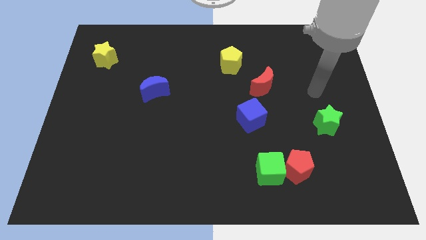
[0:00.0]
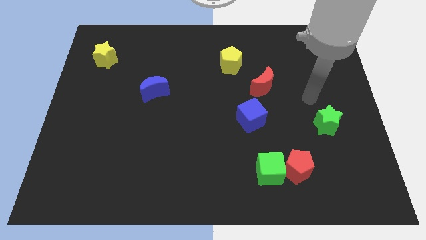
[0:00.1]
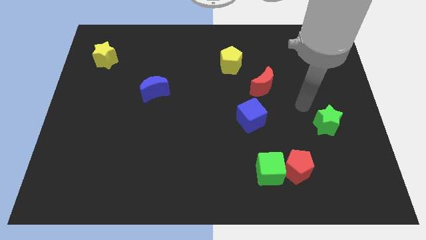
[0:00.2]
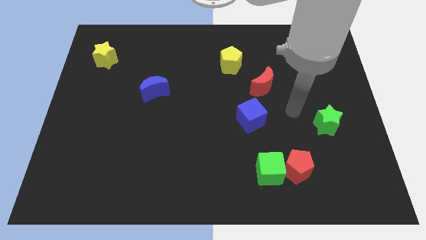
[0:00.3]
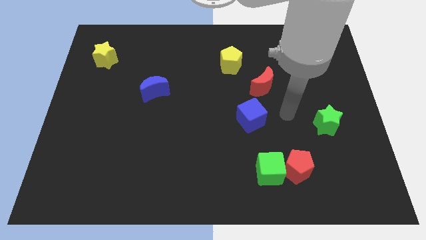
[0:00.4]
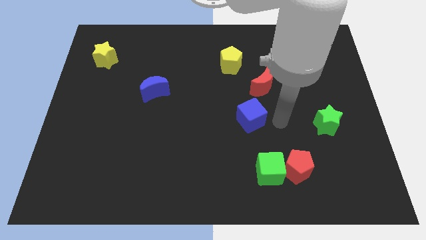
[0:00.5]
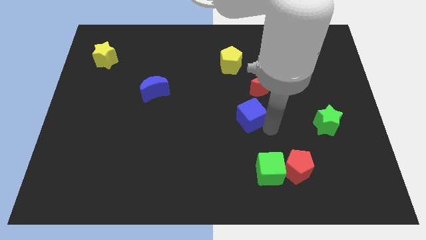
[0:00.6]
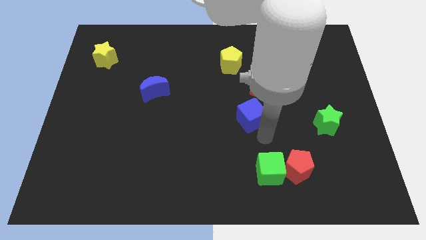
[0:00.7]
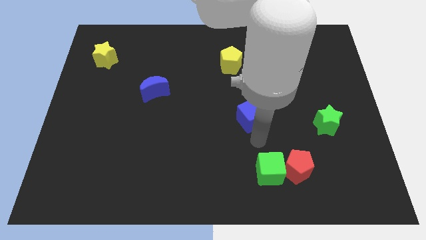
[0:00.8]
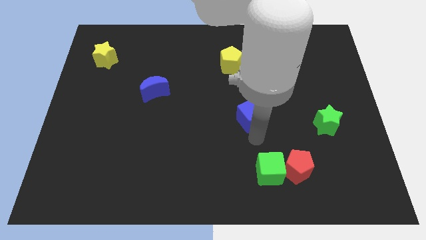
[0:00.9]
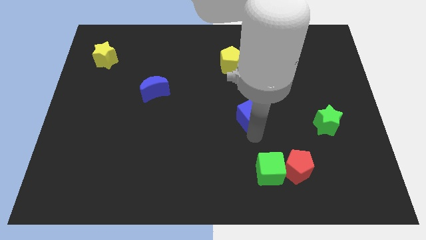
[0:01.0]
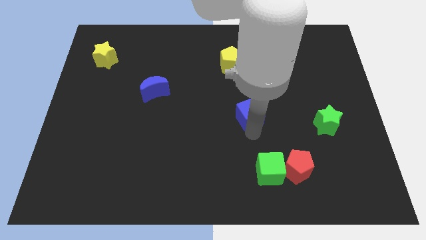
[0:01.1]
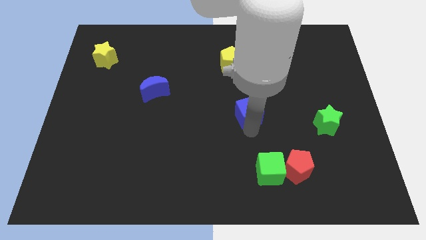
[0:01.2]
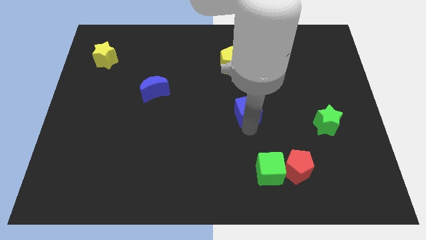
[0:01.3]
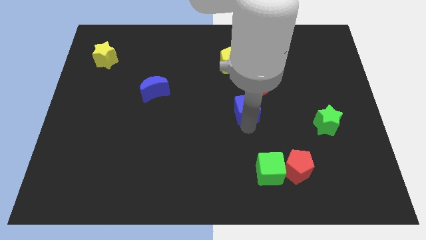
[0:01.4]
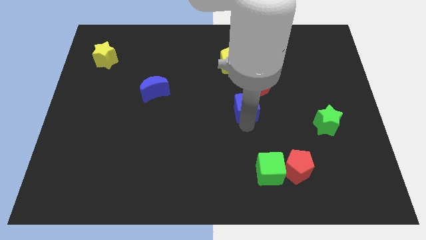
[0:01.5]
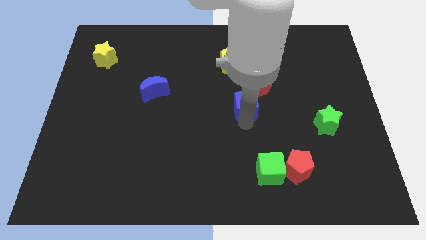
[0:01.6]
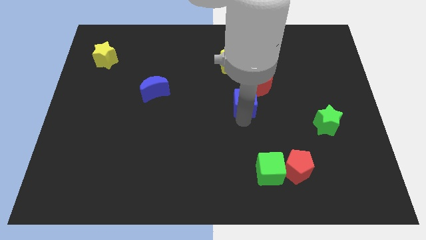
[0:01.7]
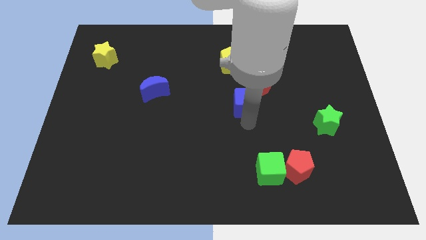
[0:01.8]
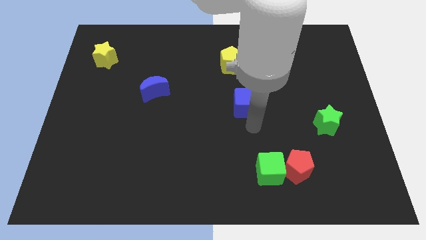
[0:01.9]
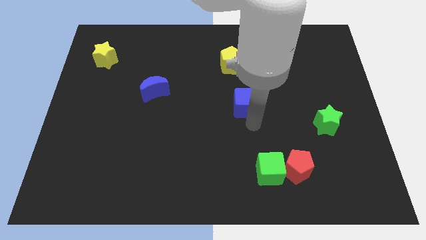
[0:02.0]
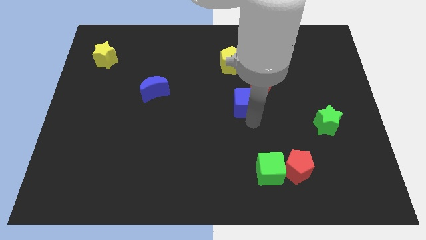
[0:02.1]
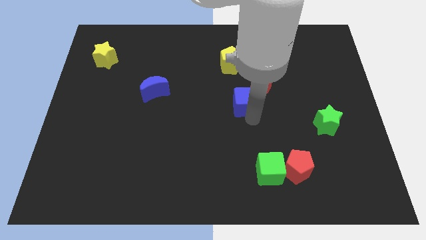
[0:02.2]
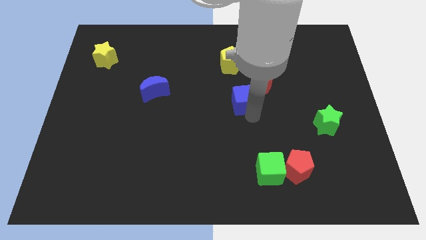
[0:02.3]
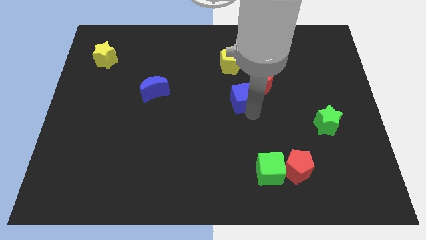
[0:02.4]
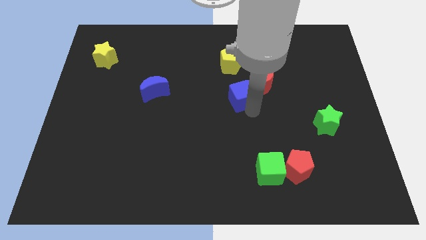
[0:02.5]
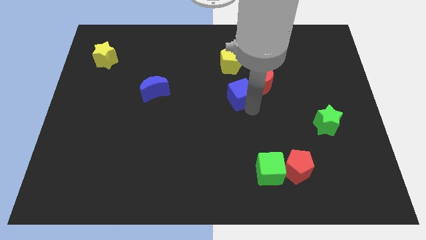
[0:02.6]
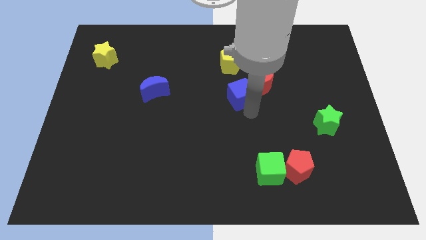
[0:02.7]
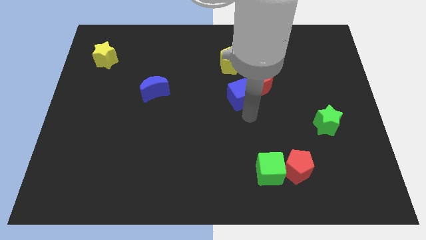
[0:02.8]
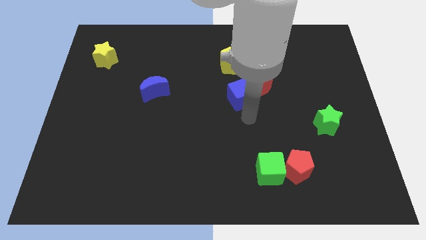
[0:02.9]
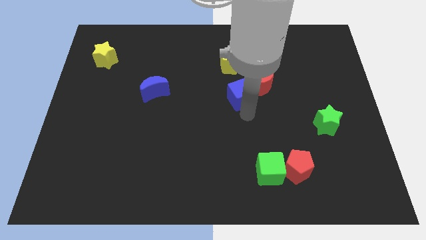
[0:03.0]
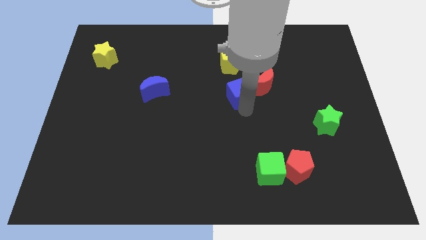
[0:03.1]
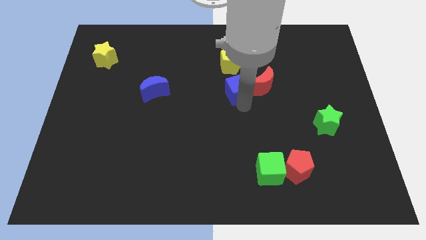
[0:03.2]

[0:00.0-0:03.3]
slide the blue cube slightly upwards

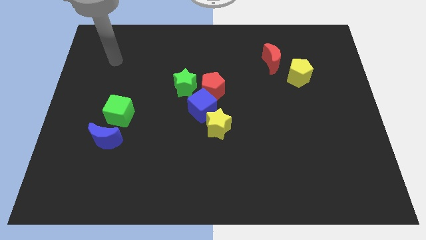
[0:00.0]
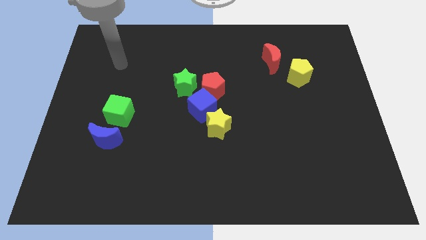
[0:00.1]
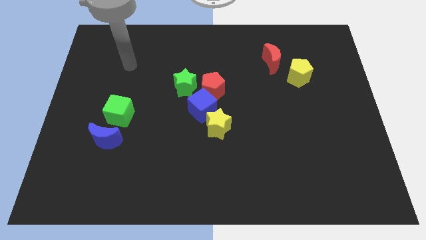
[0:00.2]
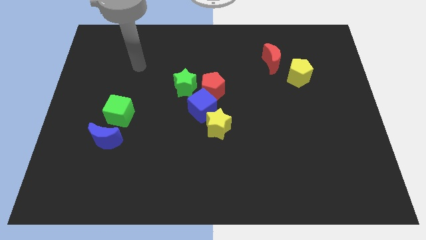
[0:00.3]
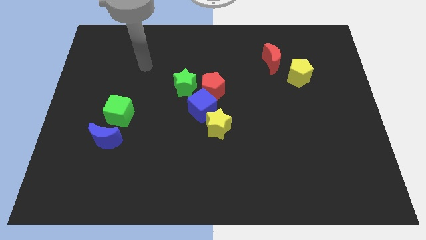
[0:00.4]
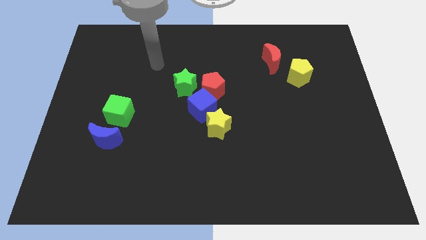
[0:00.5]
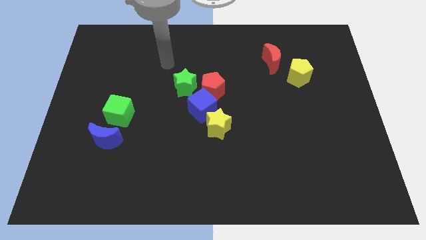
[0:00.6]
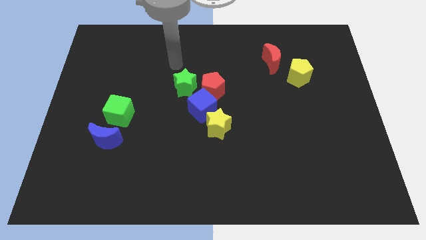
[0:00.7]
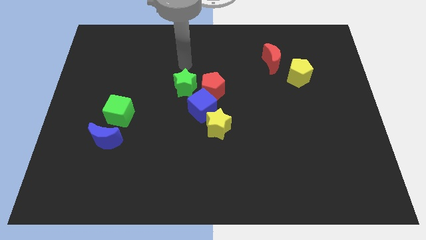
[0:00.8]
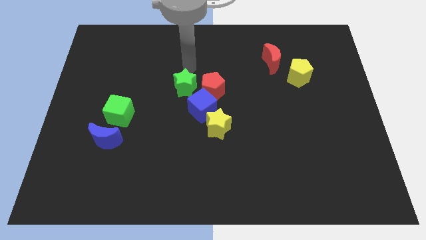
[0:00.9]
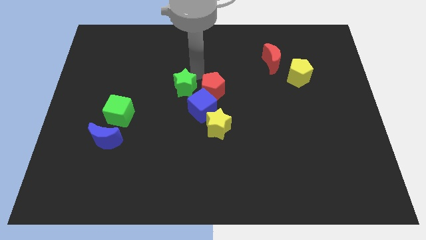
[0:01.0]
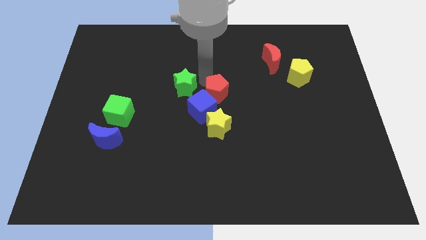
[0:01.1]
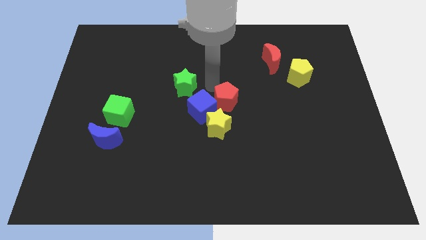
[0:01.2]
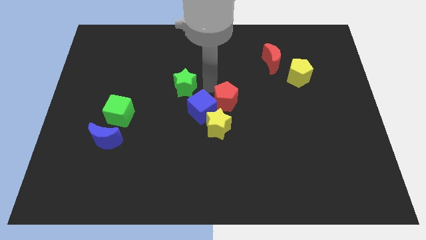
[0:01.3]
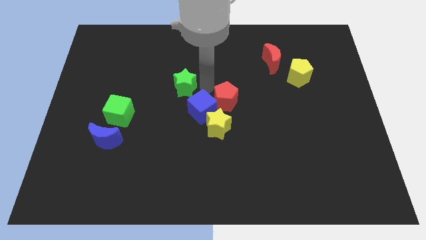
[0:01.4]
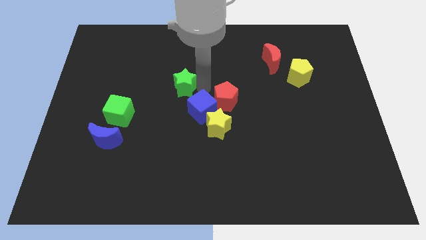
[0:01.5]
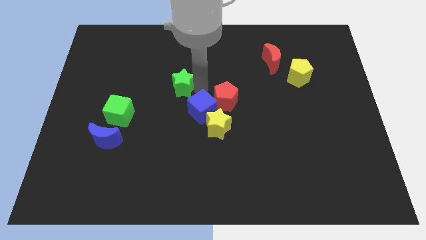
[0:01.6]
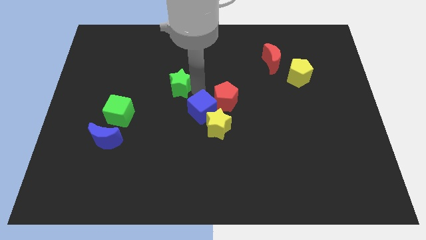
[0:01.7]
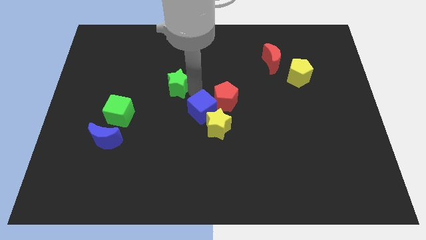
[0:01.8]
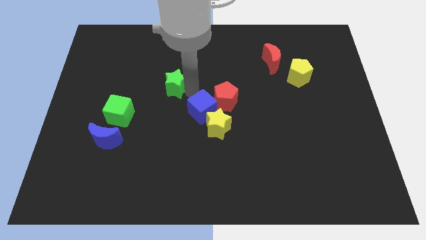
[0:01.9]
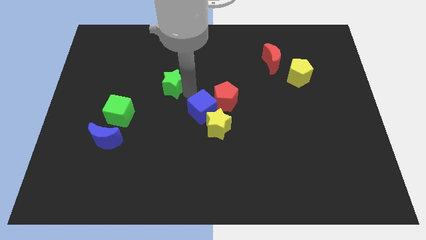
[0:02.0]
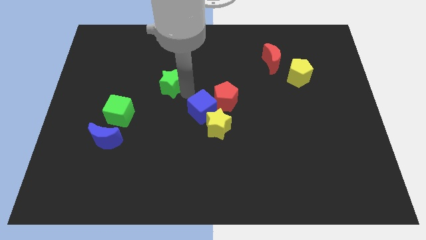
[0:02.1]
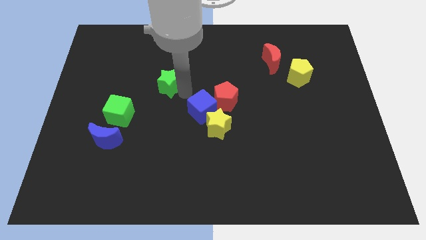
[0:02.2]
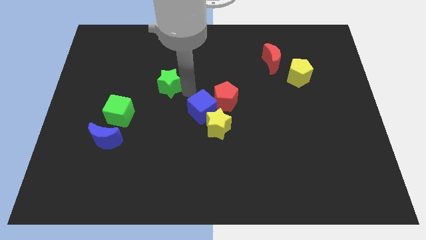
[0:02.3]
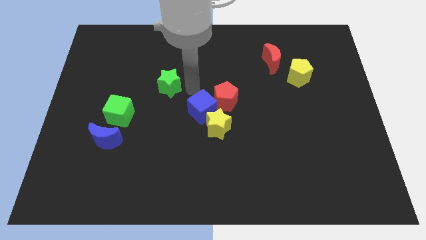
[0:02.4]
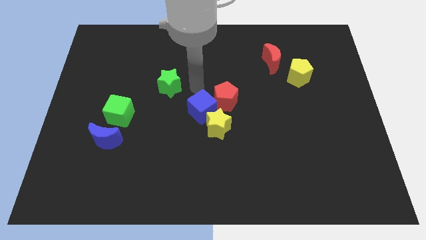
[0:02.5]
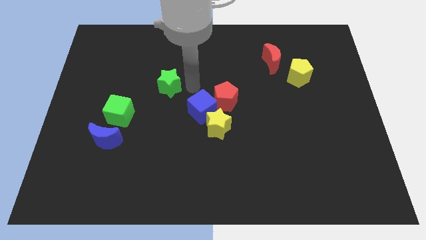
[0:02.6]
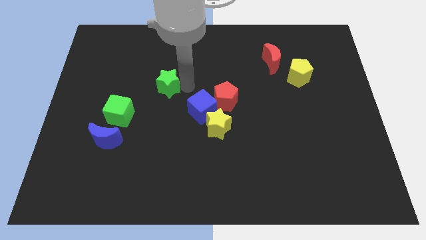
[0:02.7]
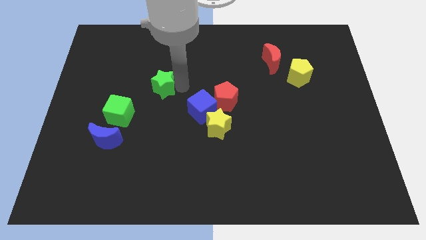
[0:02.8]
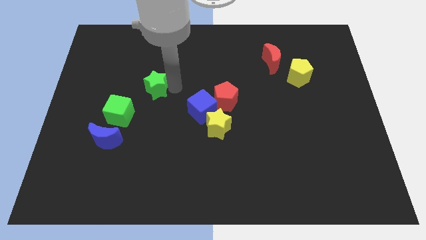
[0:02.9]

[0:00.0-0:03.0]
move the green star somewhat to the left

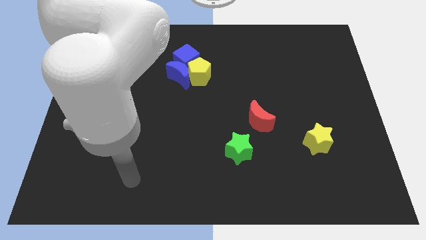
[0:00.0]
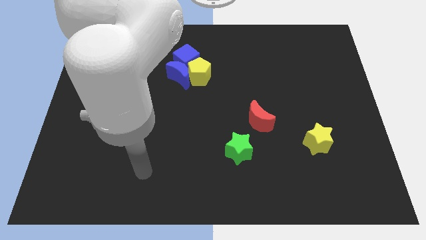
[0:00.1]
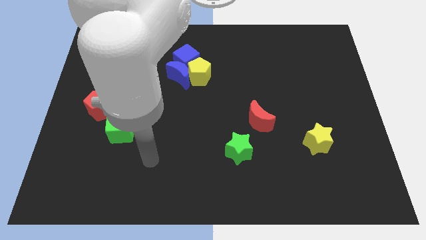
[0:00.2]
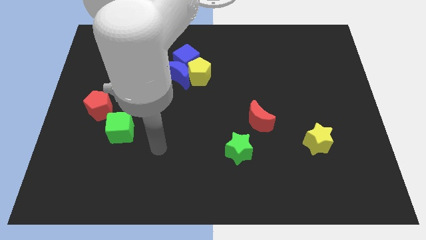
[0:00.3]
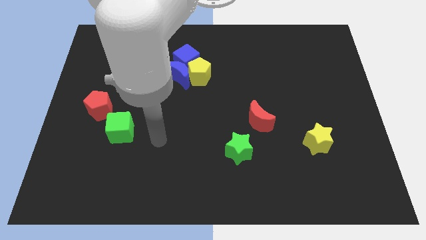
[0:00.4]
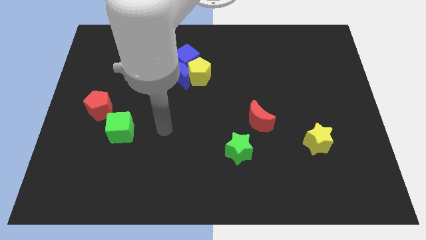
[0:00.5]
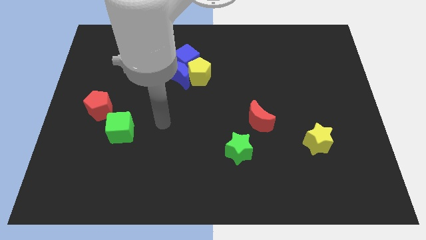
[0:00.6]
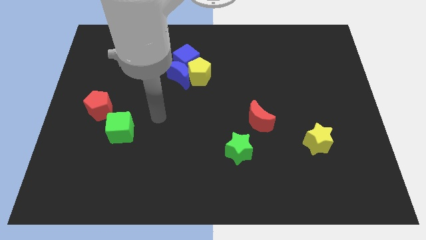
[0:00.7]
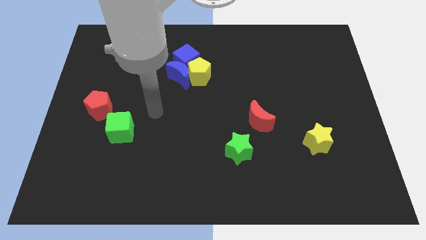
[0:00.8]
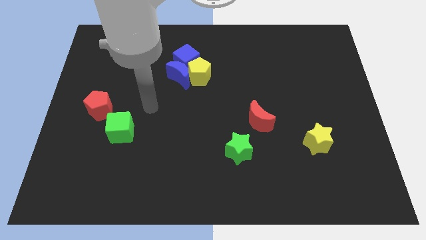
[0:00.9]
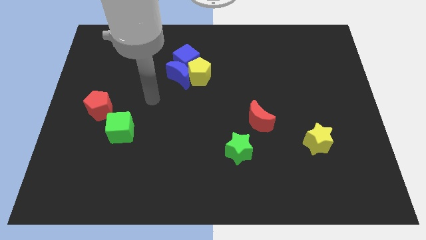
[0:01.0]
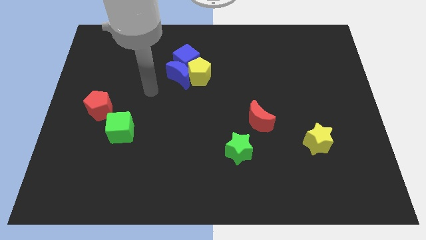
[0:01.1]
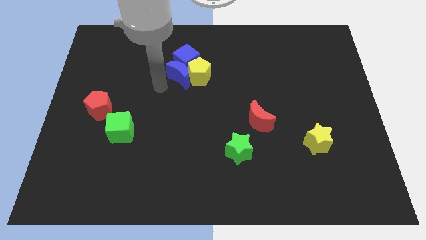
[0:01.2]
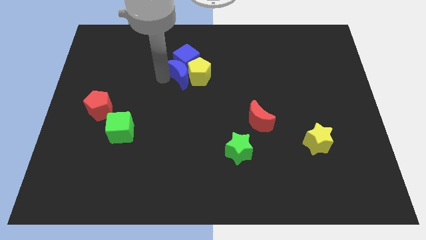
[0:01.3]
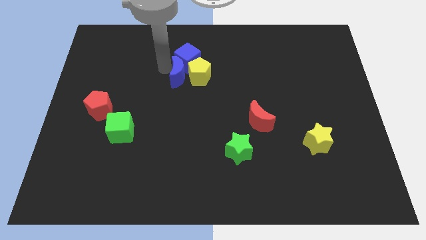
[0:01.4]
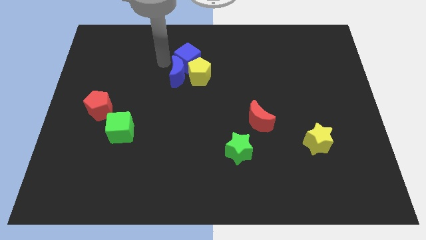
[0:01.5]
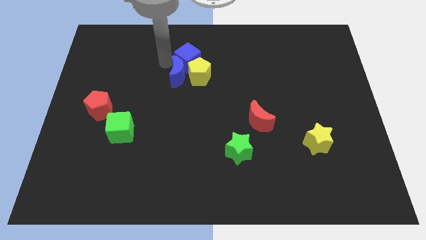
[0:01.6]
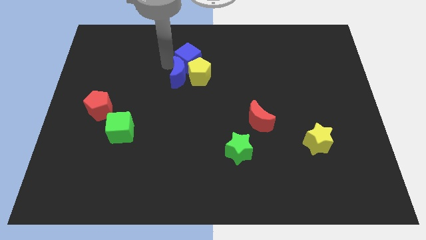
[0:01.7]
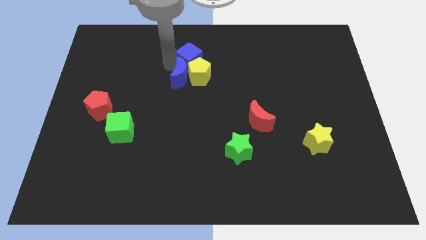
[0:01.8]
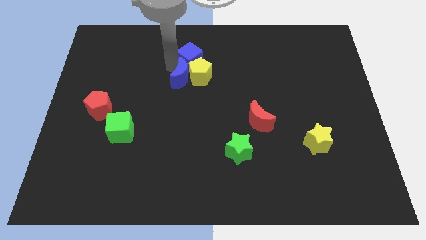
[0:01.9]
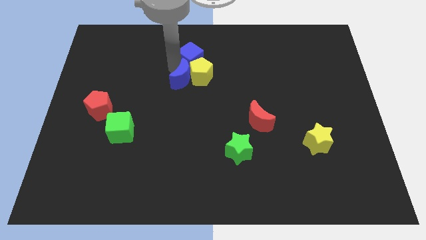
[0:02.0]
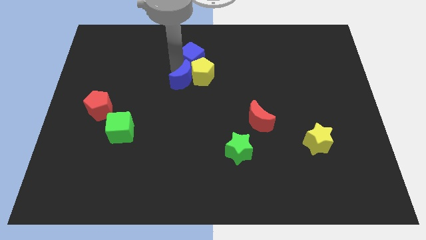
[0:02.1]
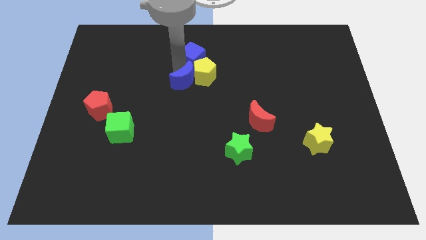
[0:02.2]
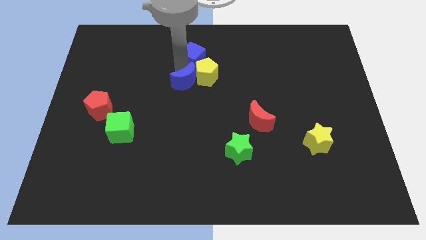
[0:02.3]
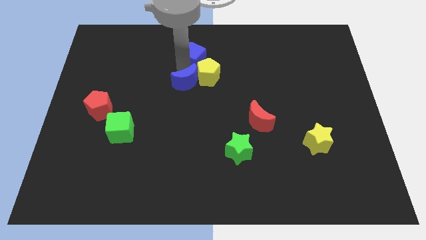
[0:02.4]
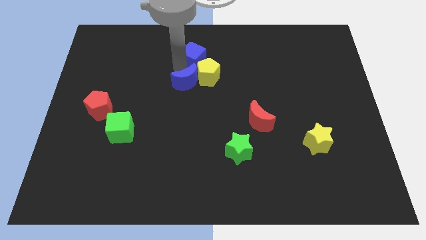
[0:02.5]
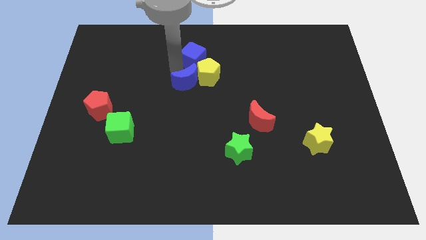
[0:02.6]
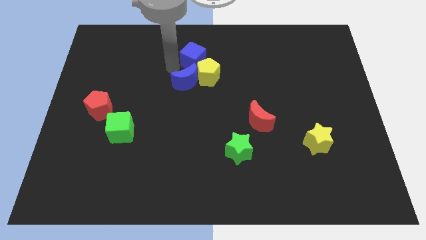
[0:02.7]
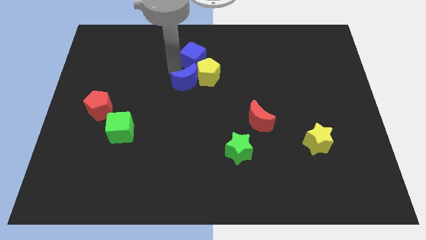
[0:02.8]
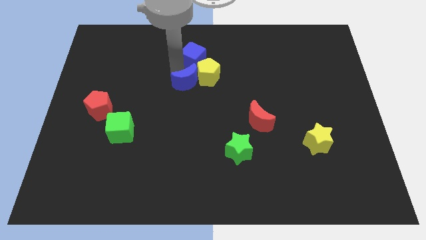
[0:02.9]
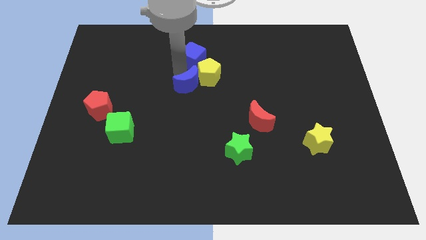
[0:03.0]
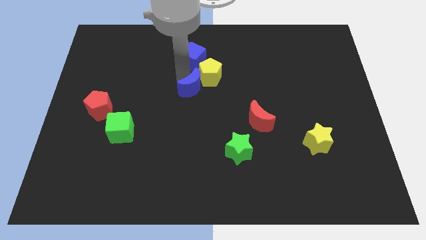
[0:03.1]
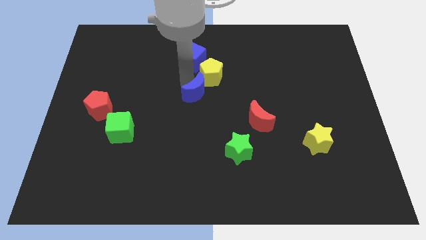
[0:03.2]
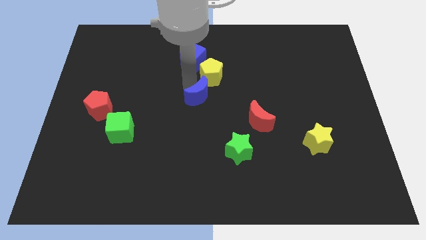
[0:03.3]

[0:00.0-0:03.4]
slightly push the blue moon down and then to the right
